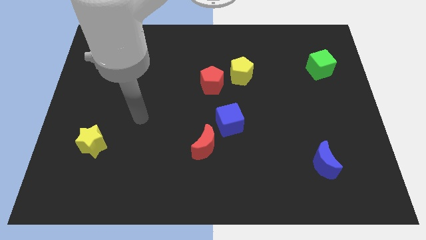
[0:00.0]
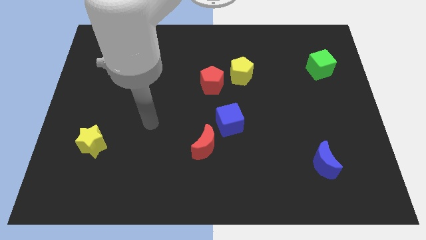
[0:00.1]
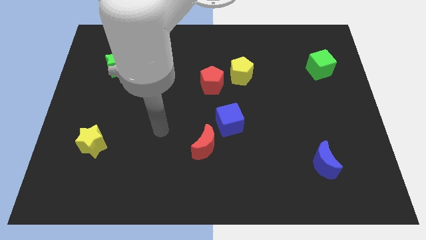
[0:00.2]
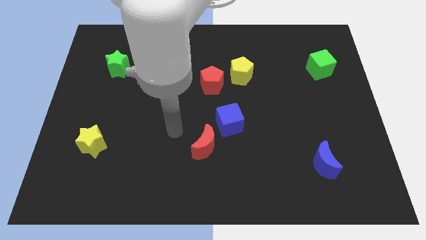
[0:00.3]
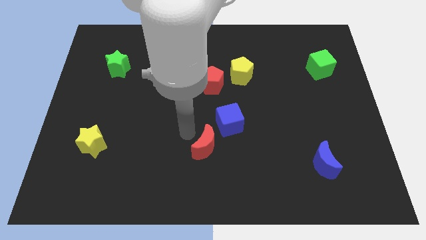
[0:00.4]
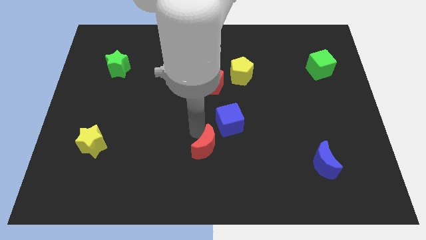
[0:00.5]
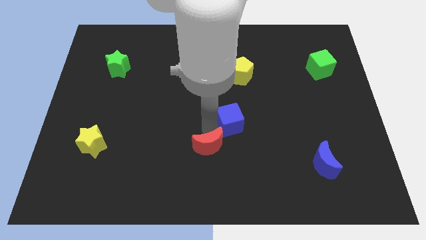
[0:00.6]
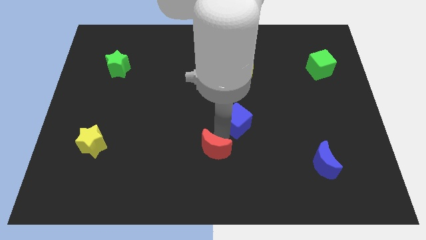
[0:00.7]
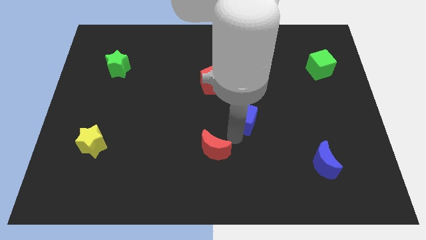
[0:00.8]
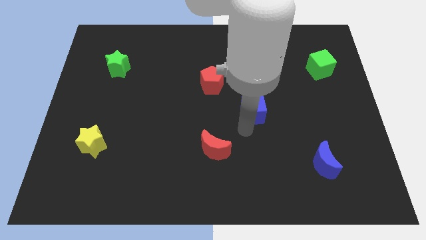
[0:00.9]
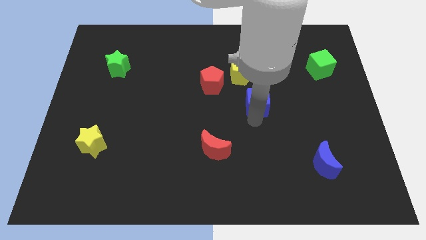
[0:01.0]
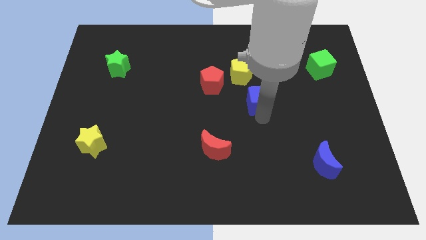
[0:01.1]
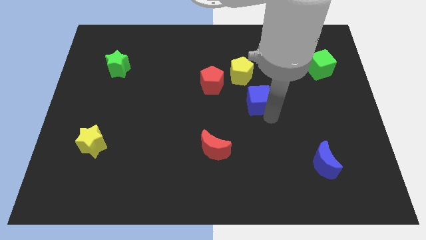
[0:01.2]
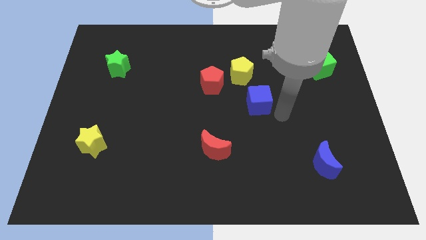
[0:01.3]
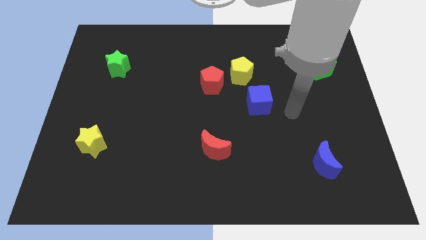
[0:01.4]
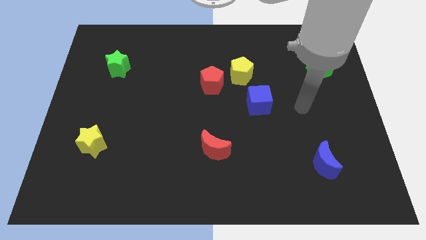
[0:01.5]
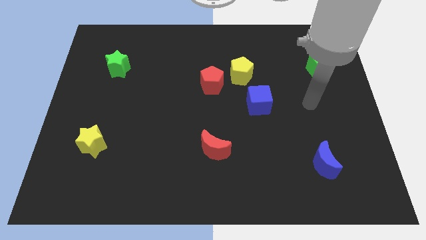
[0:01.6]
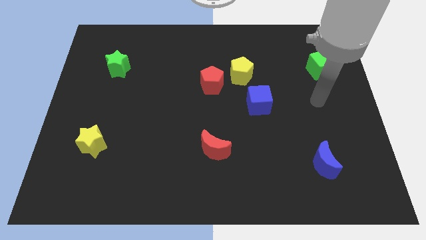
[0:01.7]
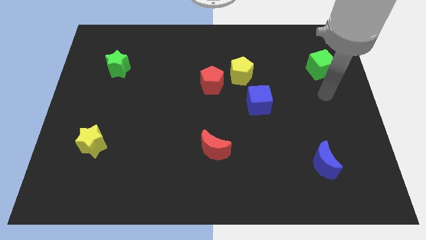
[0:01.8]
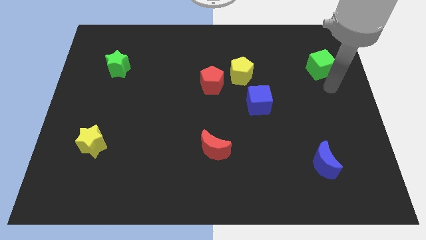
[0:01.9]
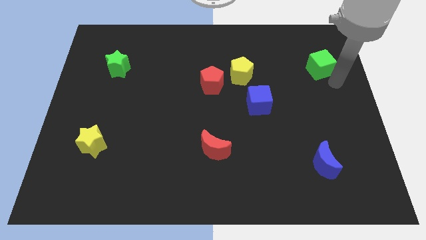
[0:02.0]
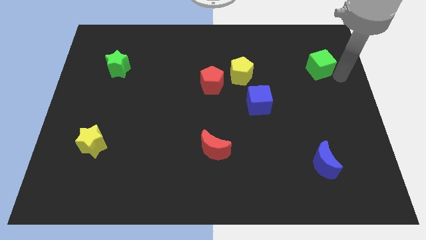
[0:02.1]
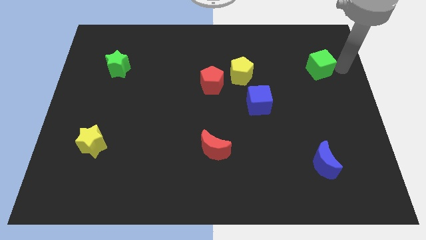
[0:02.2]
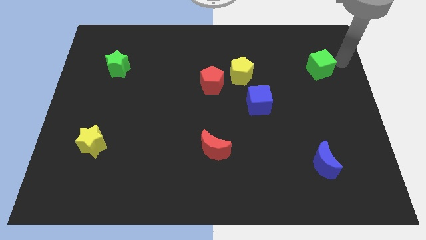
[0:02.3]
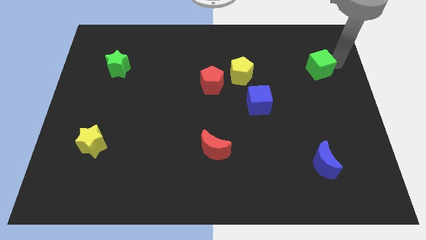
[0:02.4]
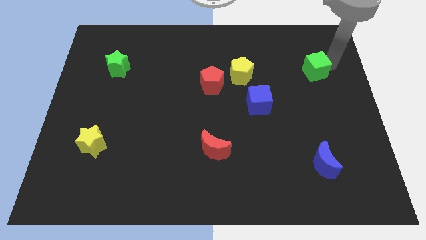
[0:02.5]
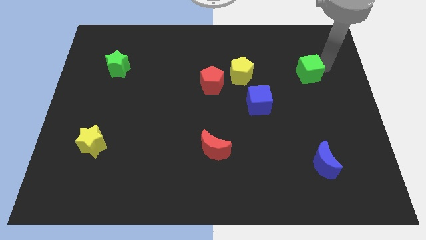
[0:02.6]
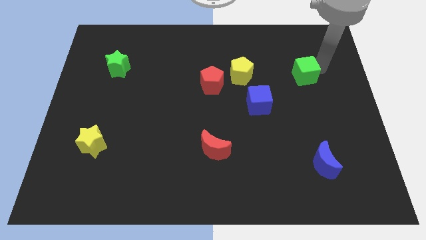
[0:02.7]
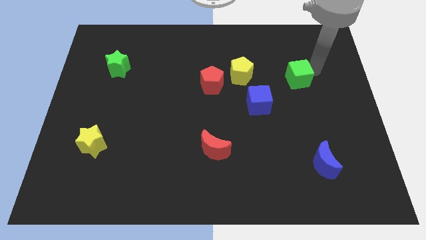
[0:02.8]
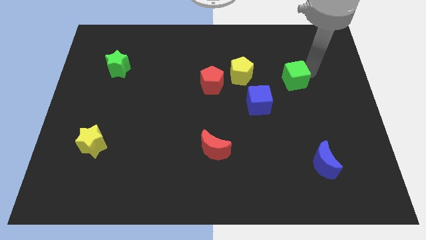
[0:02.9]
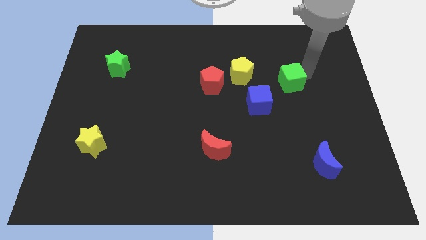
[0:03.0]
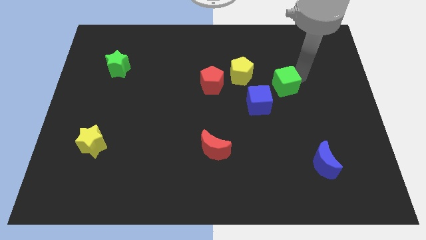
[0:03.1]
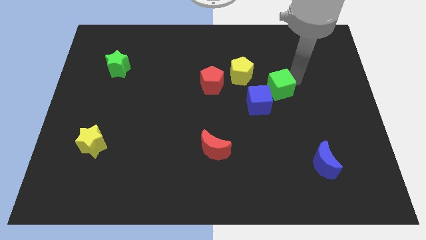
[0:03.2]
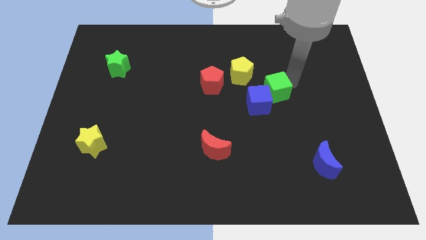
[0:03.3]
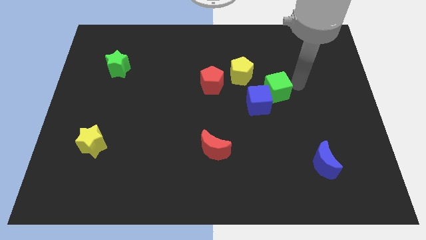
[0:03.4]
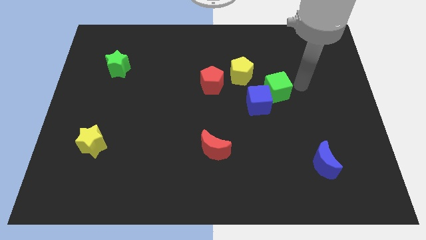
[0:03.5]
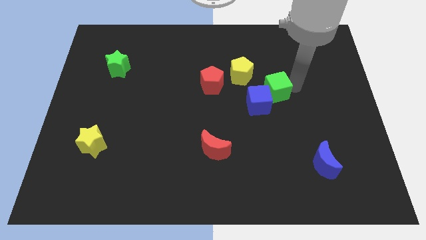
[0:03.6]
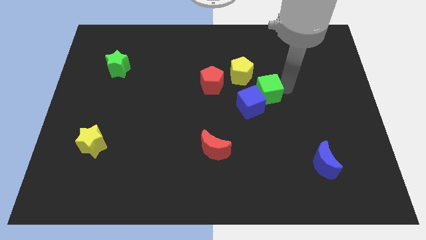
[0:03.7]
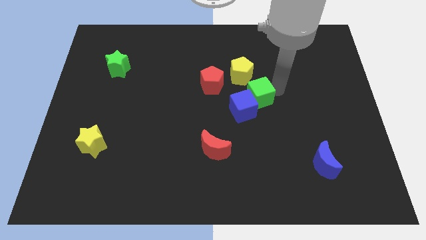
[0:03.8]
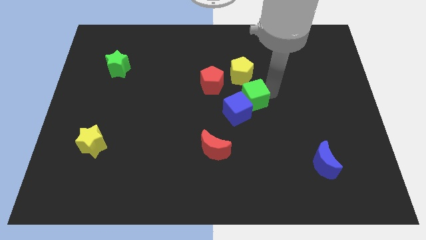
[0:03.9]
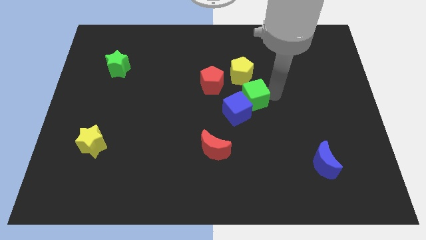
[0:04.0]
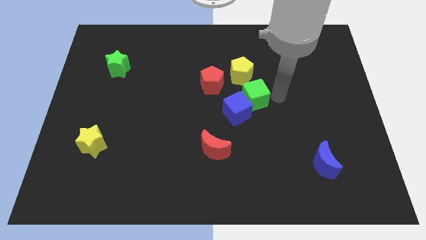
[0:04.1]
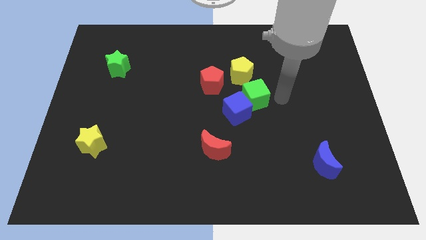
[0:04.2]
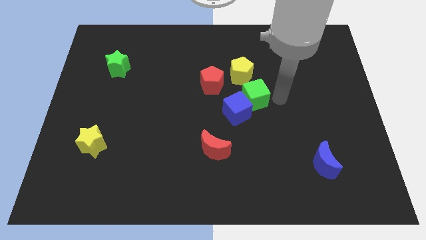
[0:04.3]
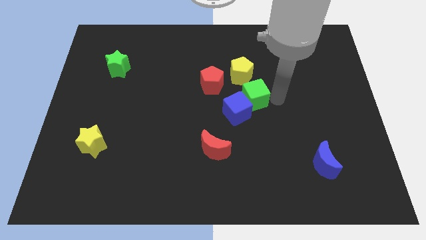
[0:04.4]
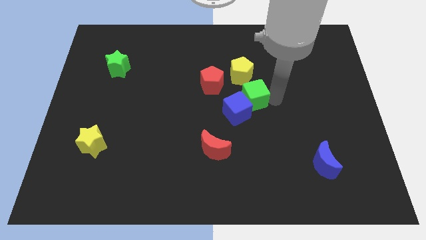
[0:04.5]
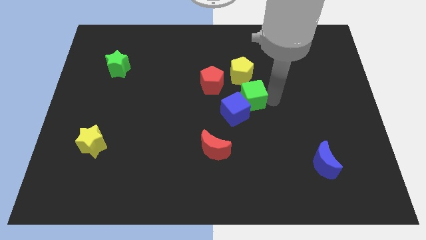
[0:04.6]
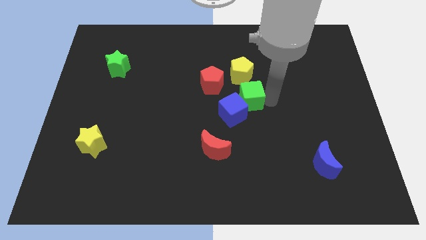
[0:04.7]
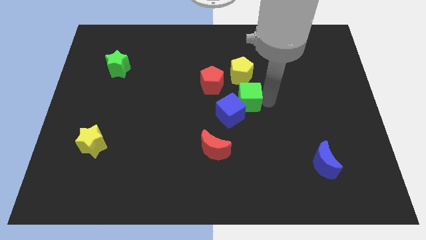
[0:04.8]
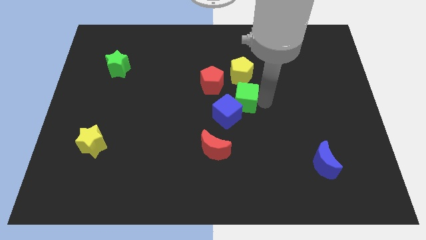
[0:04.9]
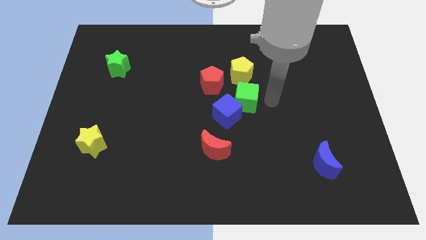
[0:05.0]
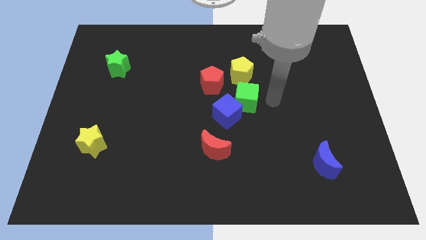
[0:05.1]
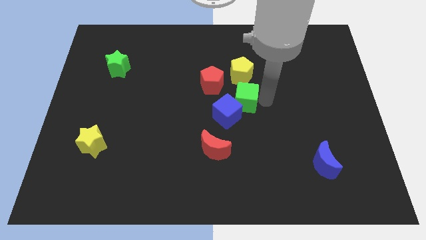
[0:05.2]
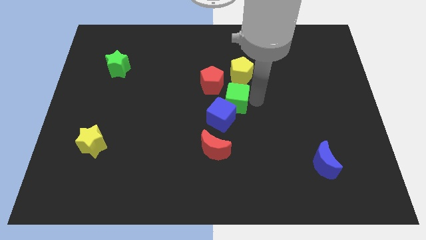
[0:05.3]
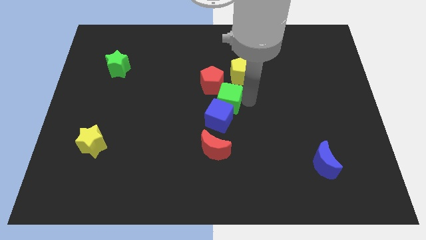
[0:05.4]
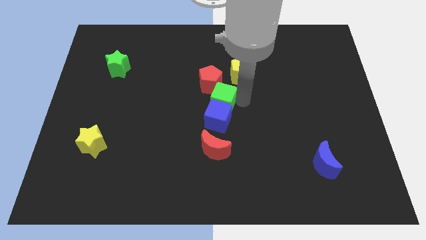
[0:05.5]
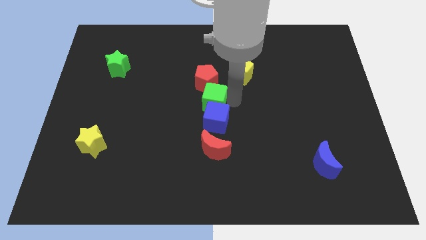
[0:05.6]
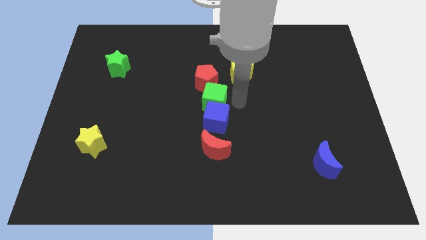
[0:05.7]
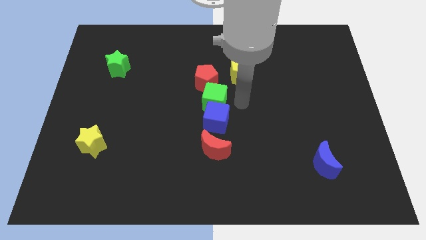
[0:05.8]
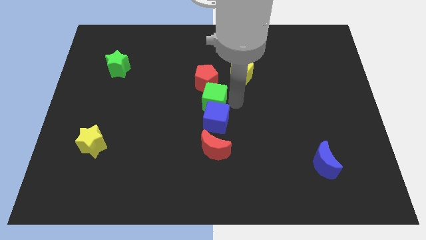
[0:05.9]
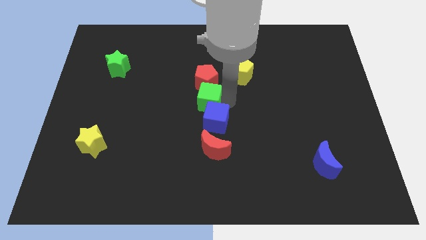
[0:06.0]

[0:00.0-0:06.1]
slide the green cube to the bottom left of the red pentagon
